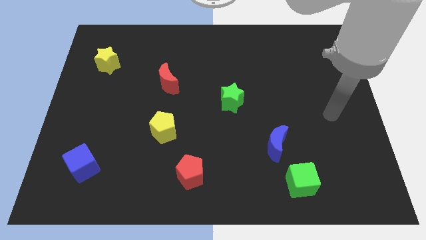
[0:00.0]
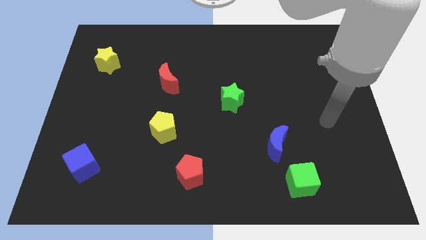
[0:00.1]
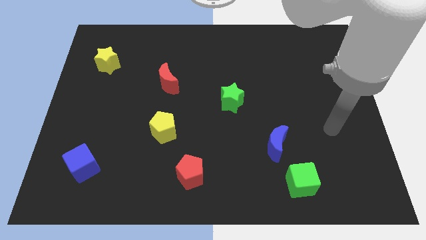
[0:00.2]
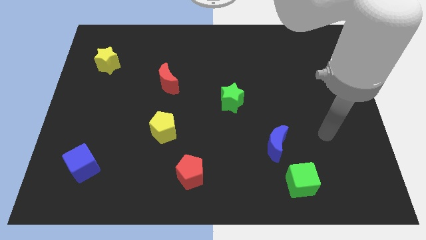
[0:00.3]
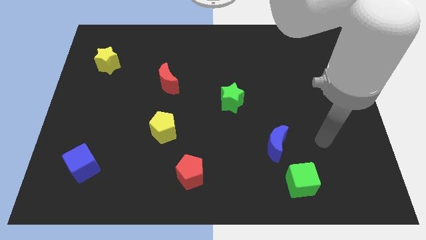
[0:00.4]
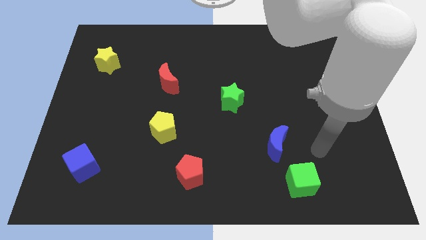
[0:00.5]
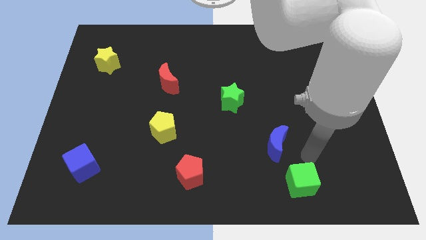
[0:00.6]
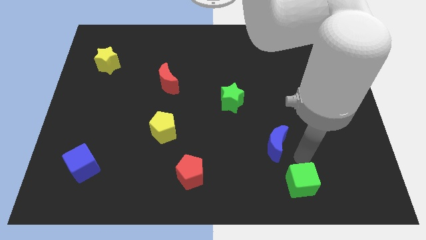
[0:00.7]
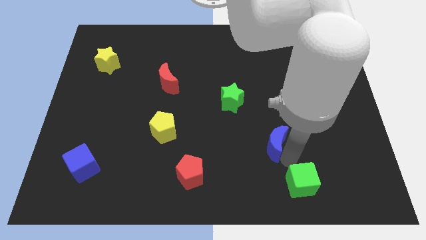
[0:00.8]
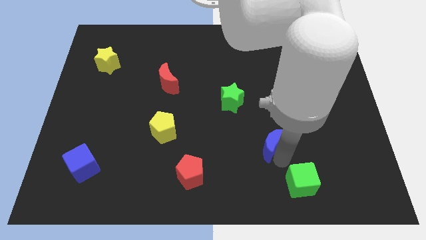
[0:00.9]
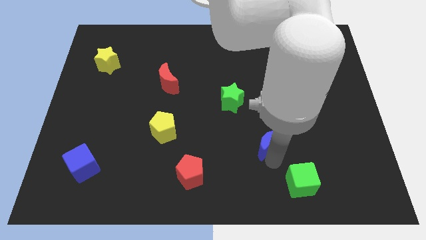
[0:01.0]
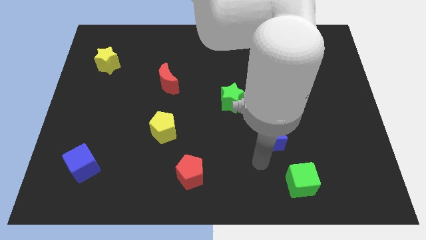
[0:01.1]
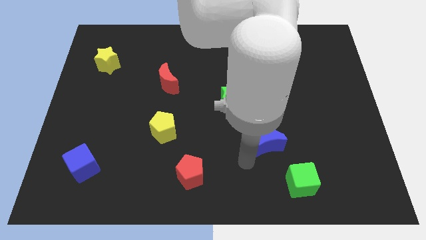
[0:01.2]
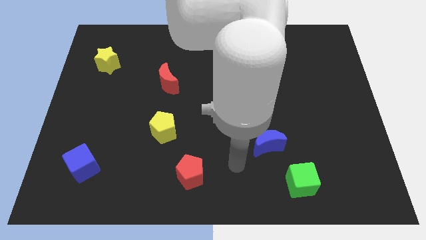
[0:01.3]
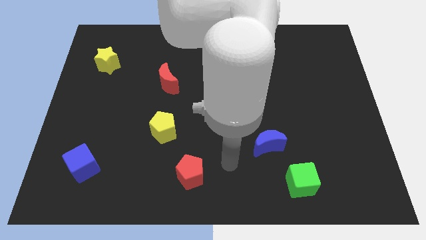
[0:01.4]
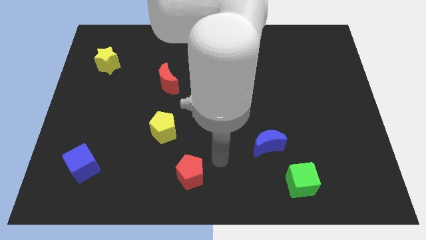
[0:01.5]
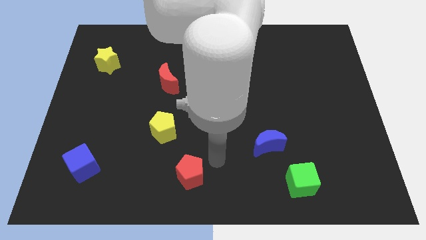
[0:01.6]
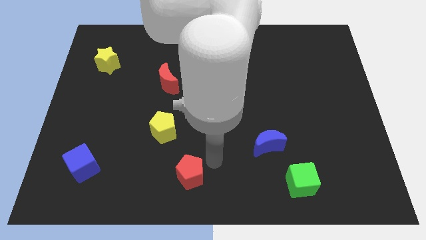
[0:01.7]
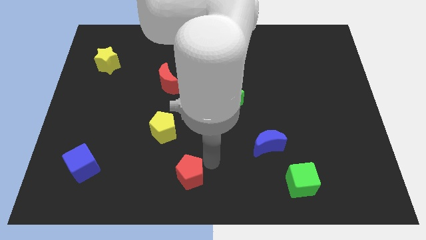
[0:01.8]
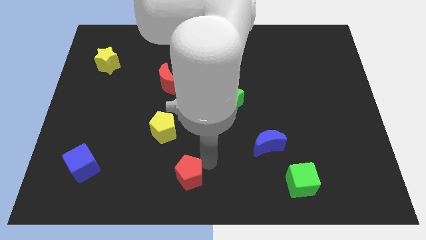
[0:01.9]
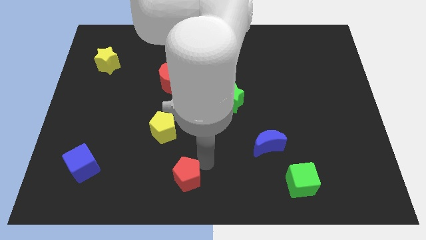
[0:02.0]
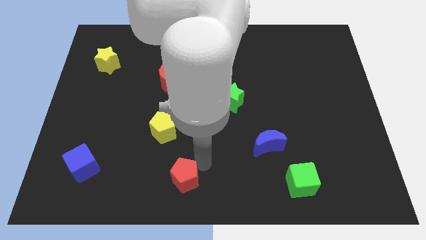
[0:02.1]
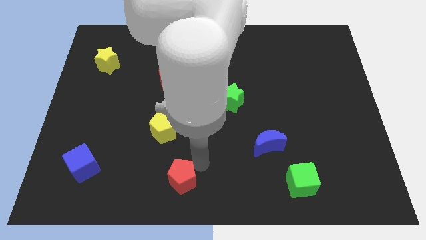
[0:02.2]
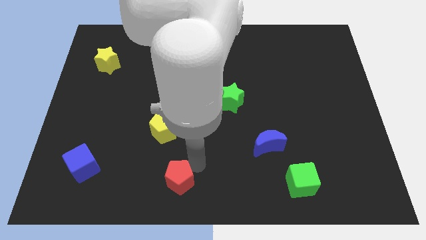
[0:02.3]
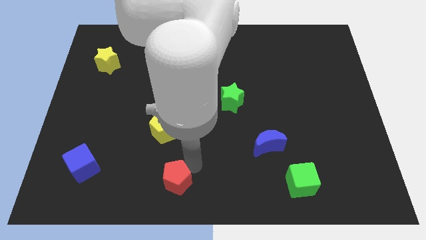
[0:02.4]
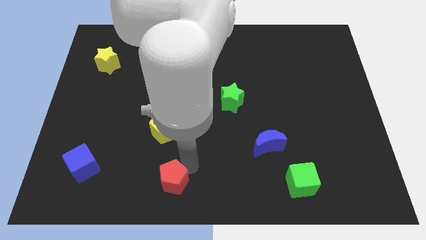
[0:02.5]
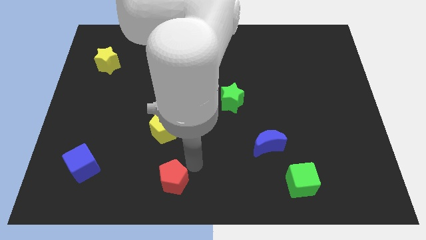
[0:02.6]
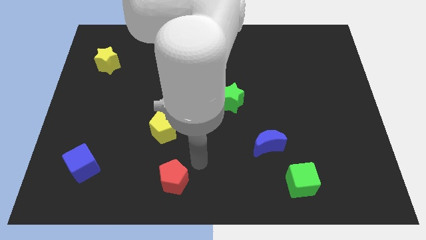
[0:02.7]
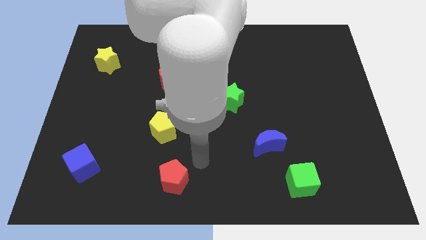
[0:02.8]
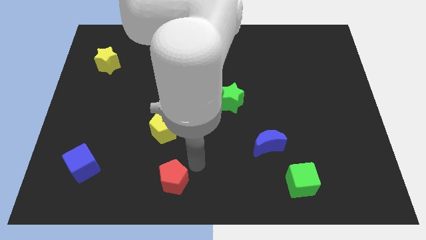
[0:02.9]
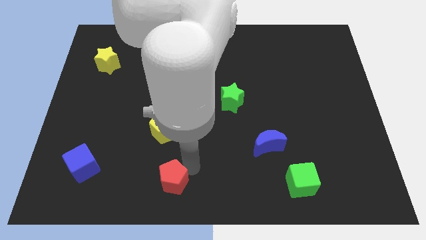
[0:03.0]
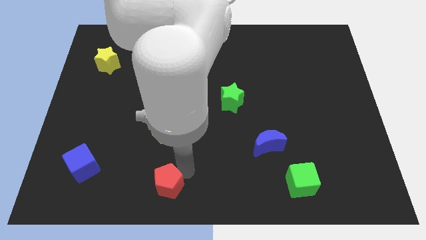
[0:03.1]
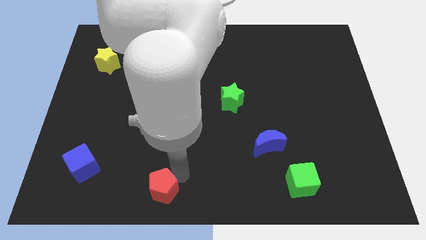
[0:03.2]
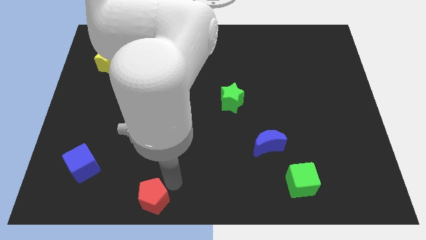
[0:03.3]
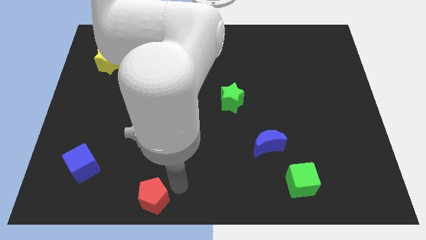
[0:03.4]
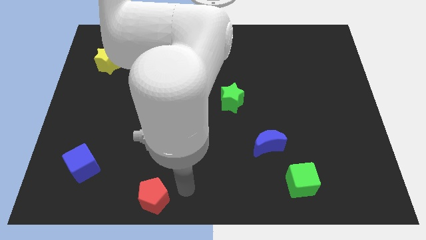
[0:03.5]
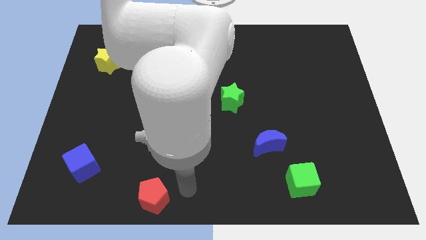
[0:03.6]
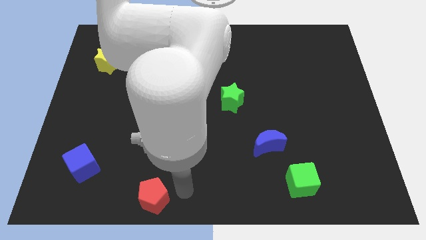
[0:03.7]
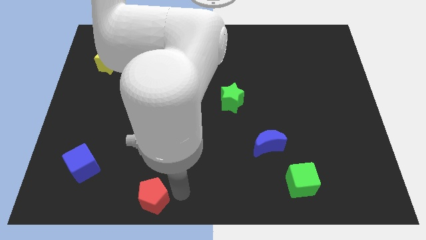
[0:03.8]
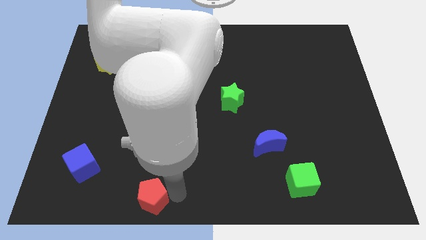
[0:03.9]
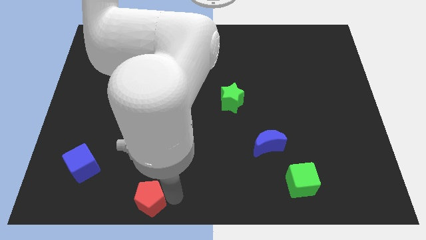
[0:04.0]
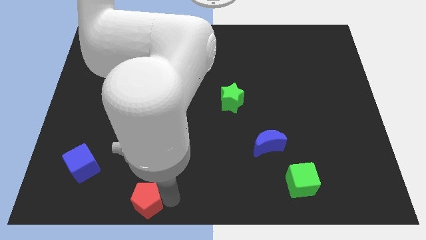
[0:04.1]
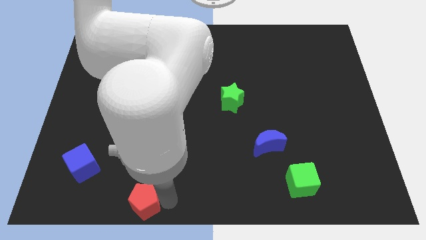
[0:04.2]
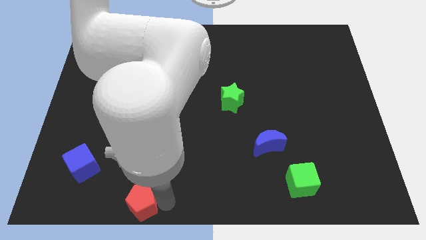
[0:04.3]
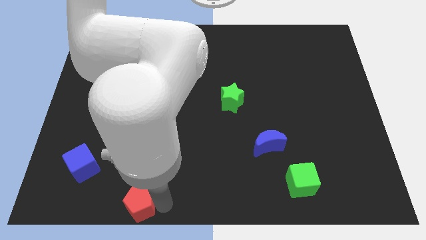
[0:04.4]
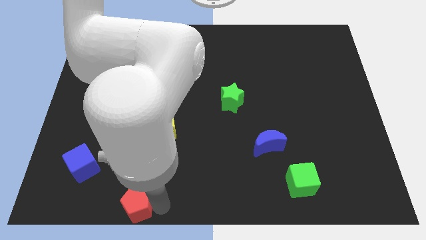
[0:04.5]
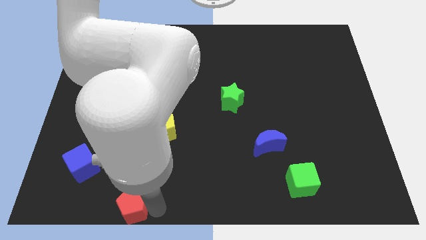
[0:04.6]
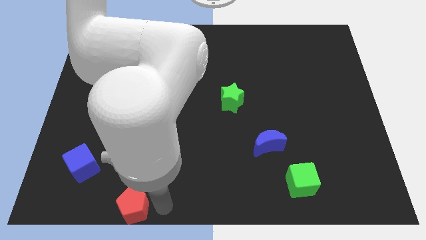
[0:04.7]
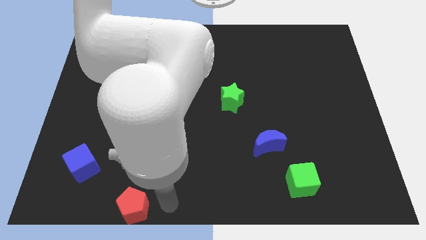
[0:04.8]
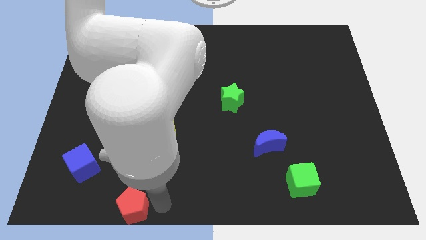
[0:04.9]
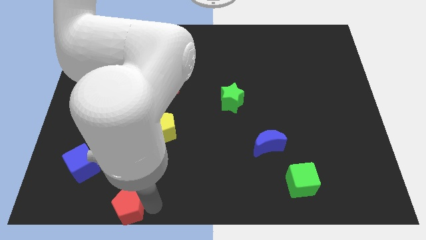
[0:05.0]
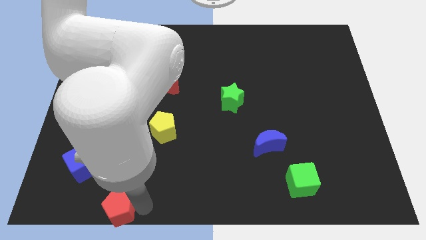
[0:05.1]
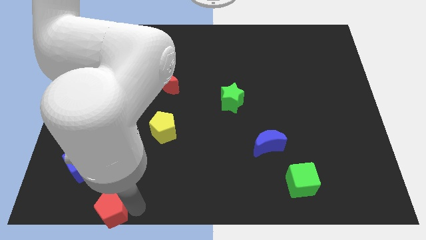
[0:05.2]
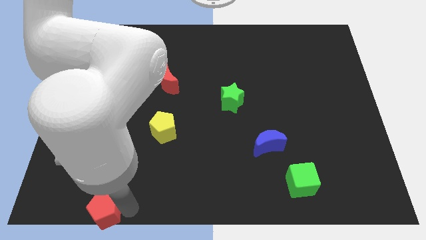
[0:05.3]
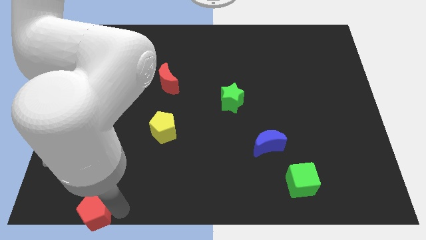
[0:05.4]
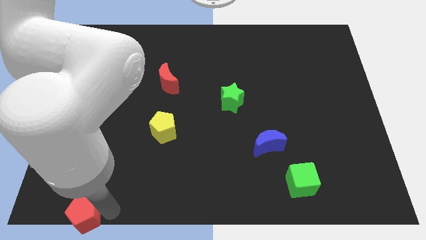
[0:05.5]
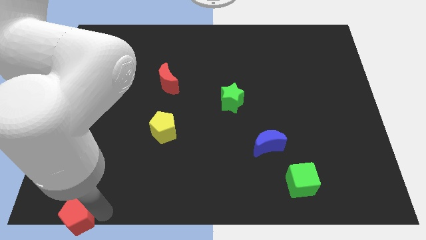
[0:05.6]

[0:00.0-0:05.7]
put the red pentagon to the lower left corner
